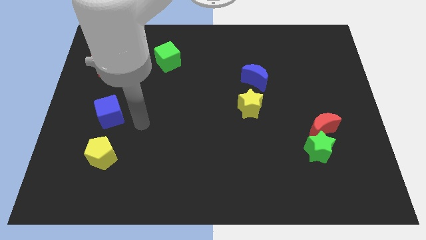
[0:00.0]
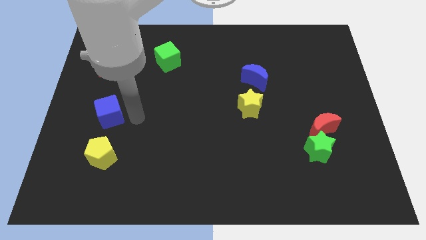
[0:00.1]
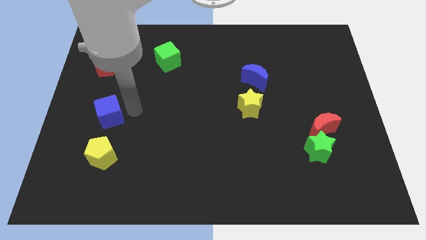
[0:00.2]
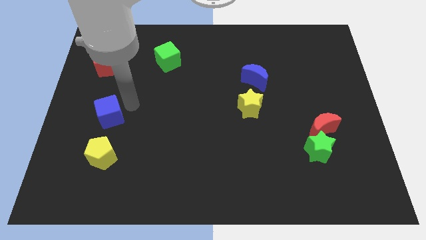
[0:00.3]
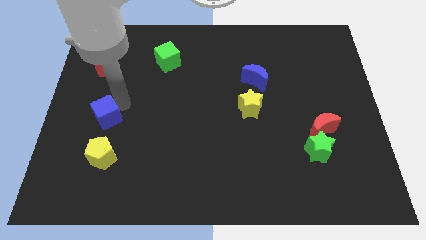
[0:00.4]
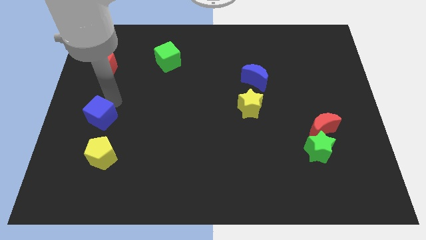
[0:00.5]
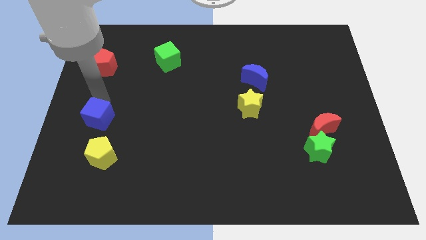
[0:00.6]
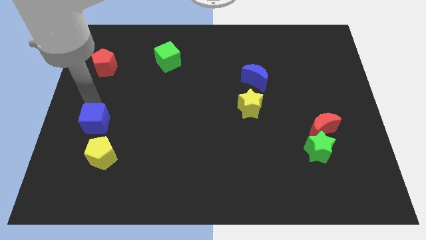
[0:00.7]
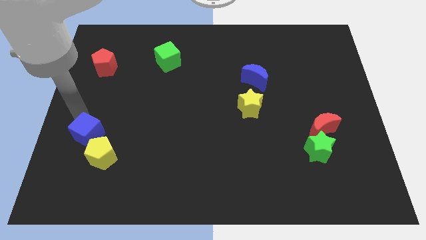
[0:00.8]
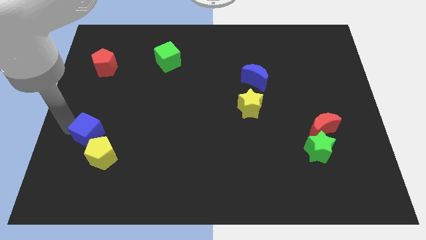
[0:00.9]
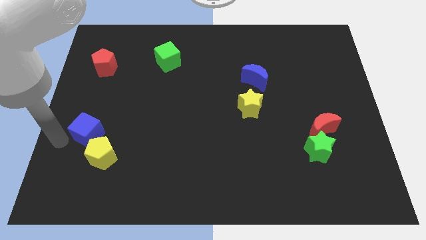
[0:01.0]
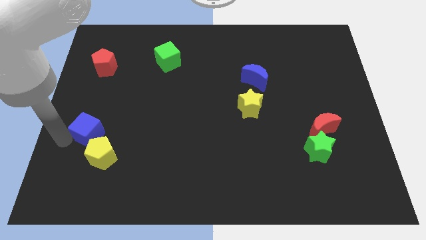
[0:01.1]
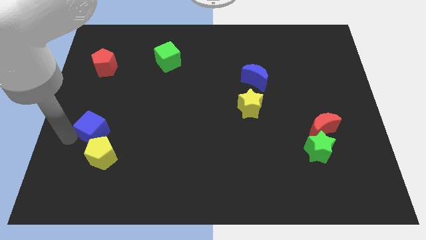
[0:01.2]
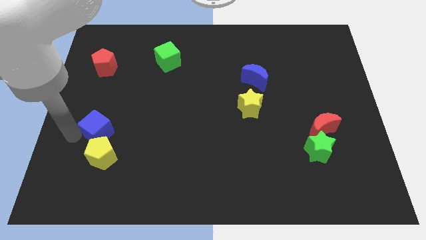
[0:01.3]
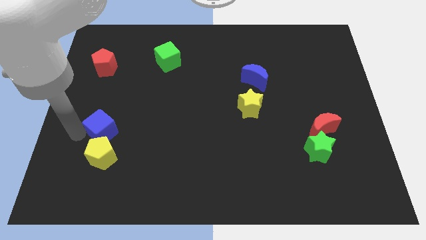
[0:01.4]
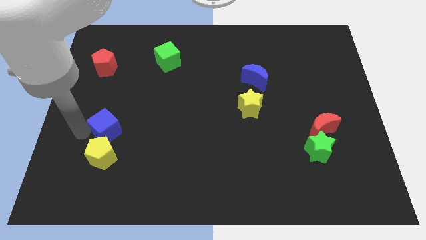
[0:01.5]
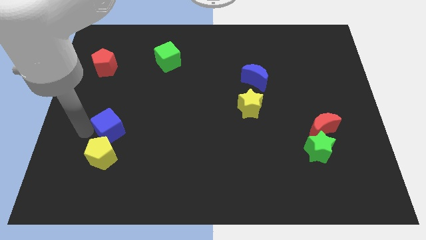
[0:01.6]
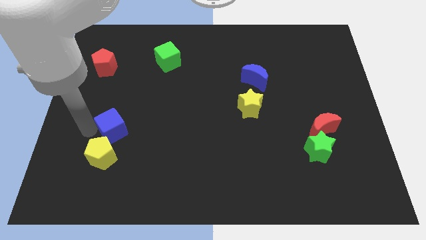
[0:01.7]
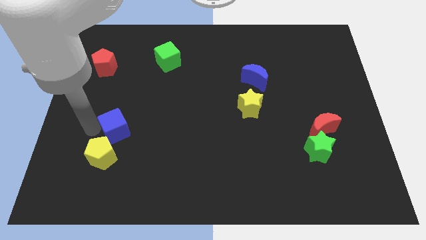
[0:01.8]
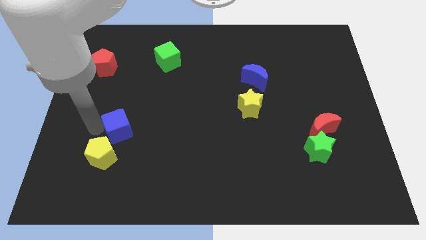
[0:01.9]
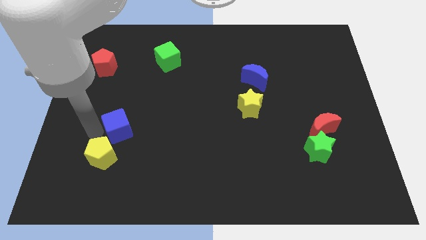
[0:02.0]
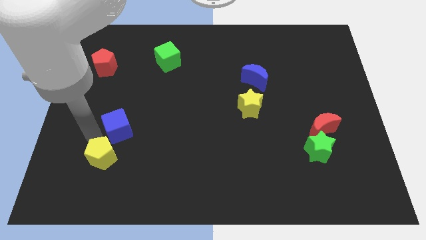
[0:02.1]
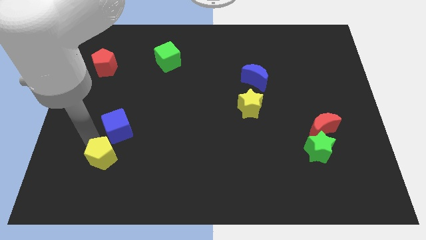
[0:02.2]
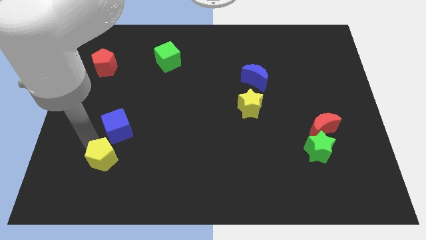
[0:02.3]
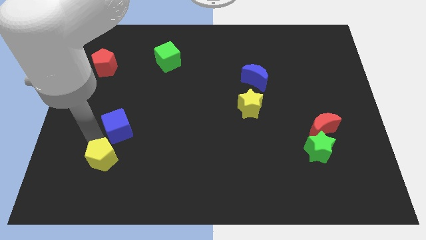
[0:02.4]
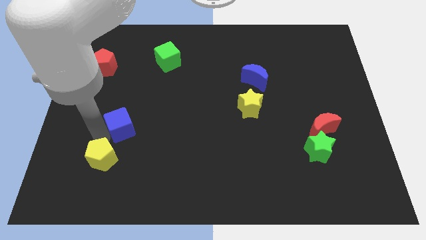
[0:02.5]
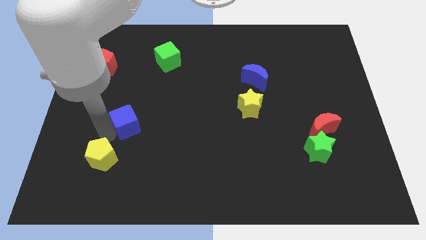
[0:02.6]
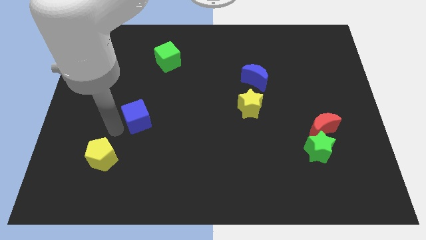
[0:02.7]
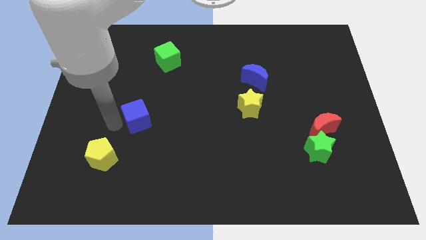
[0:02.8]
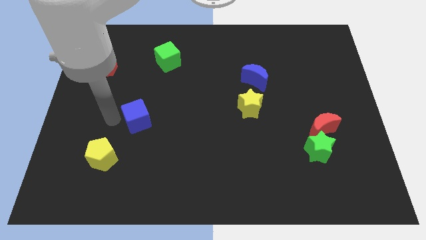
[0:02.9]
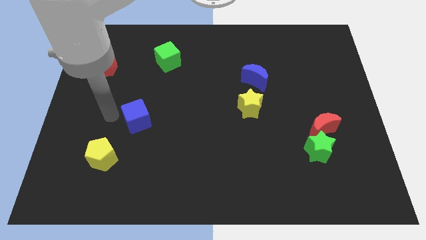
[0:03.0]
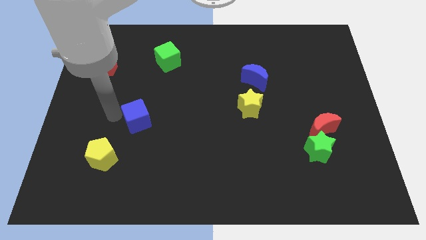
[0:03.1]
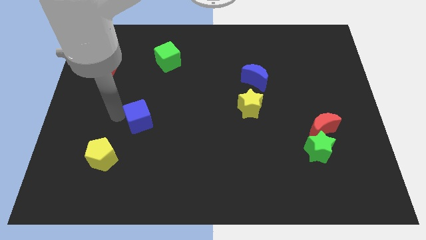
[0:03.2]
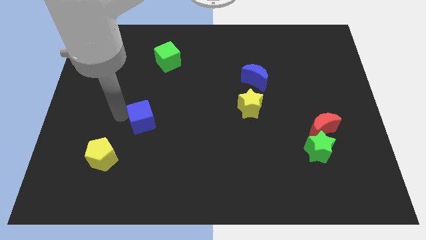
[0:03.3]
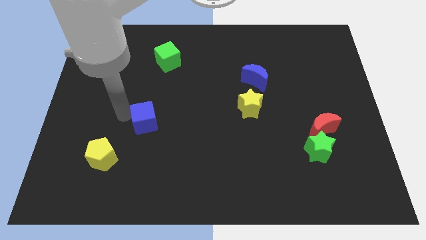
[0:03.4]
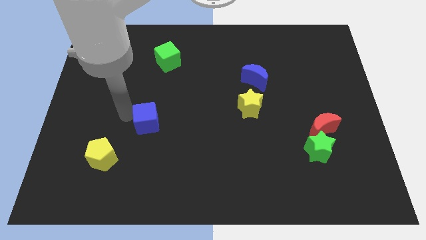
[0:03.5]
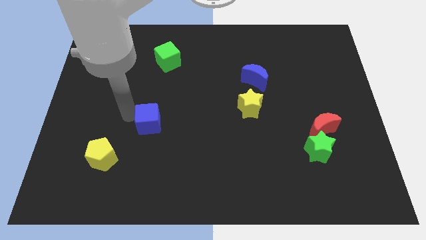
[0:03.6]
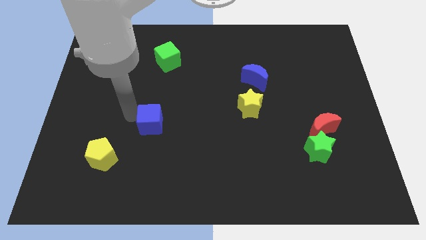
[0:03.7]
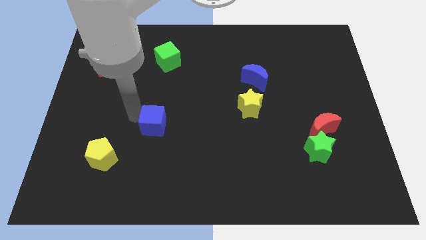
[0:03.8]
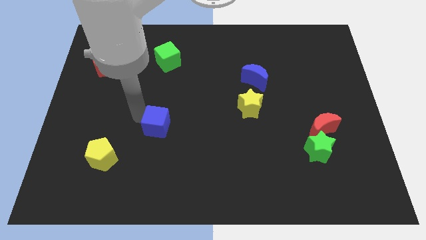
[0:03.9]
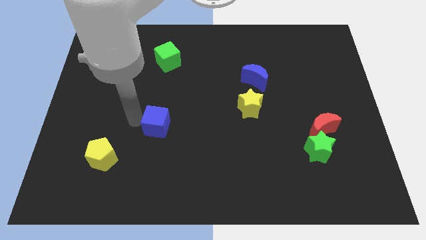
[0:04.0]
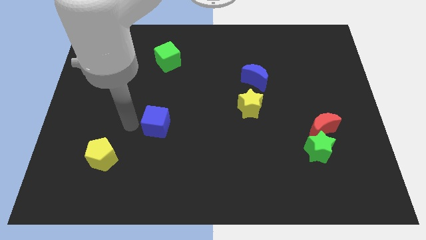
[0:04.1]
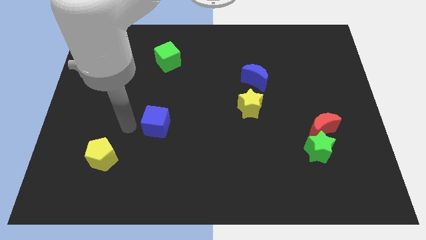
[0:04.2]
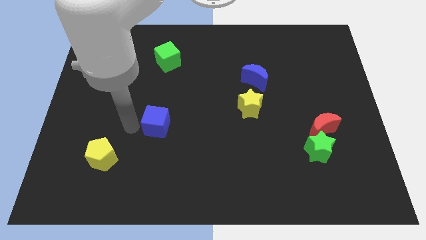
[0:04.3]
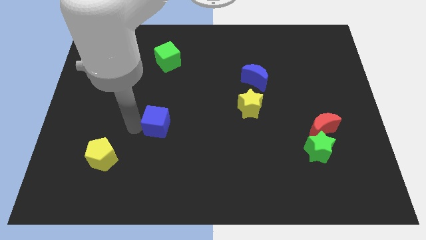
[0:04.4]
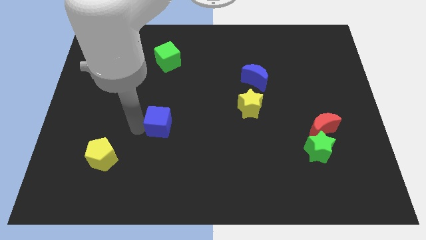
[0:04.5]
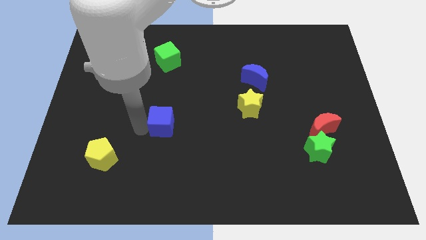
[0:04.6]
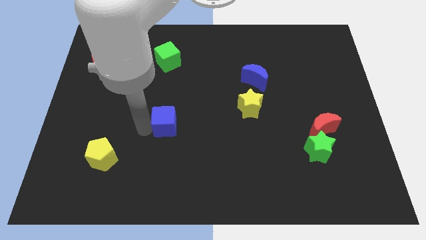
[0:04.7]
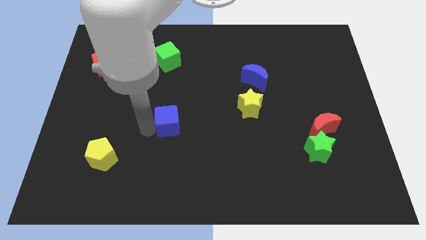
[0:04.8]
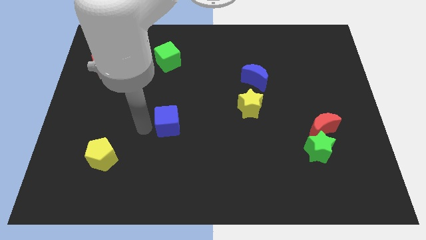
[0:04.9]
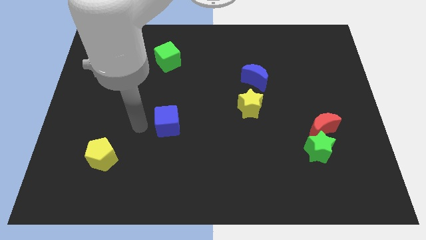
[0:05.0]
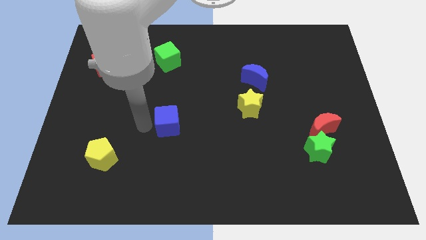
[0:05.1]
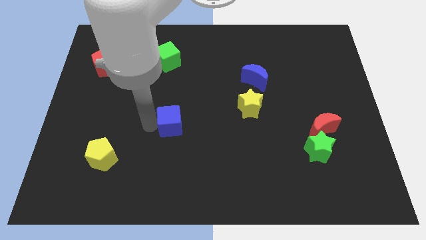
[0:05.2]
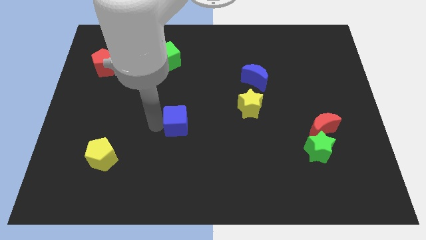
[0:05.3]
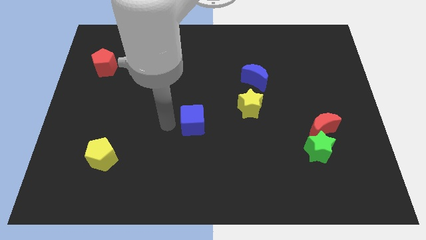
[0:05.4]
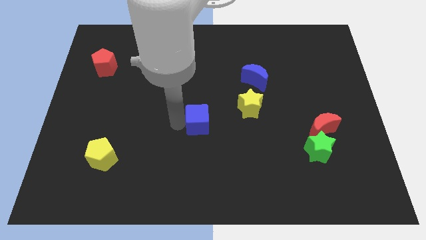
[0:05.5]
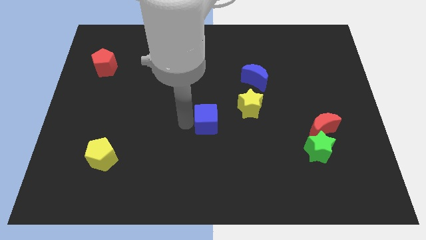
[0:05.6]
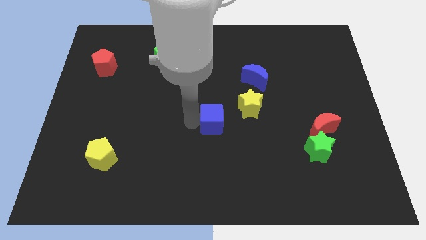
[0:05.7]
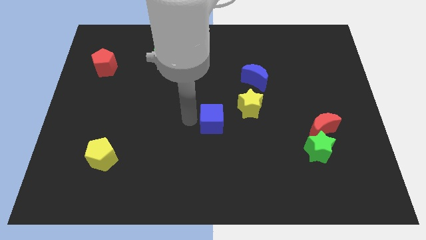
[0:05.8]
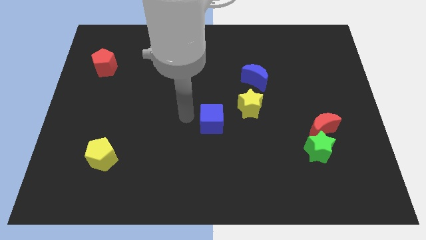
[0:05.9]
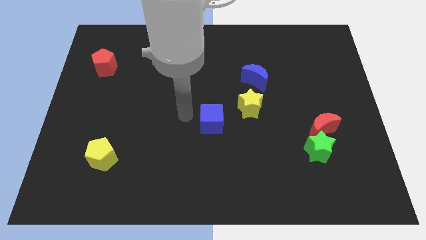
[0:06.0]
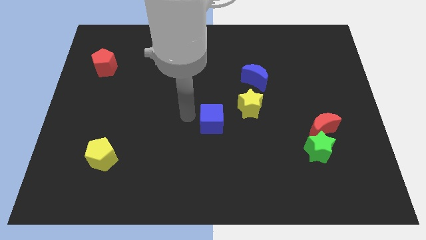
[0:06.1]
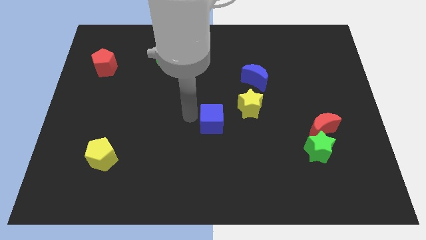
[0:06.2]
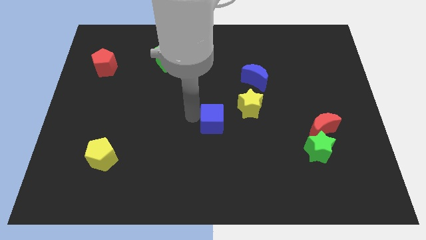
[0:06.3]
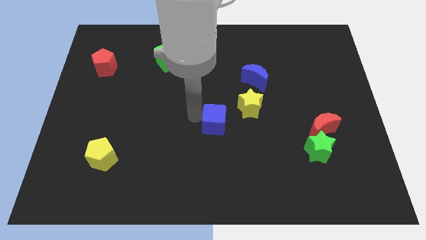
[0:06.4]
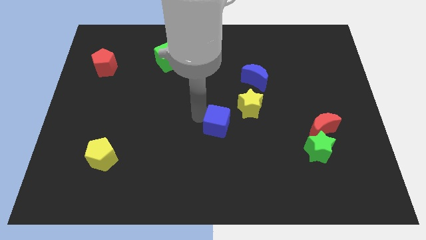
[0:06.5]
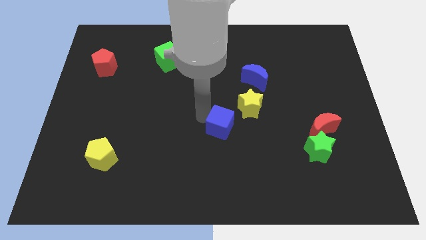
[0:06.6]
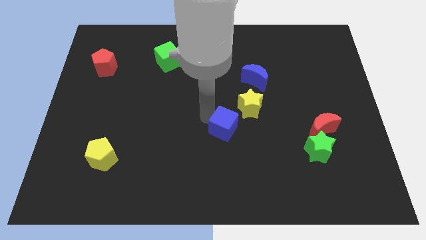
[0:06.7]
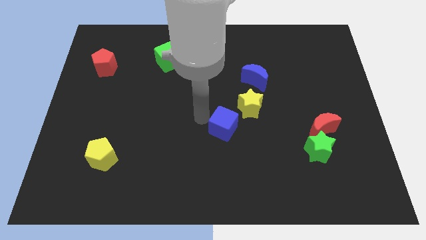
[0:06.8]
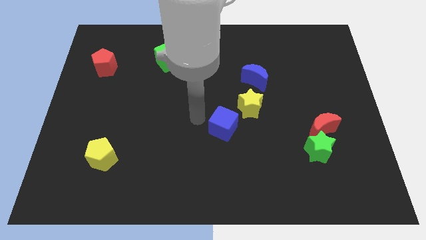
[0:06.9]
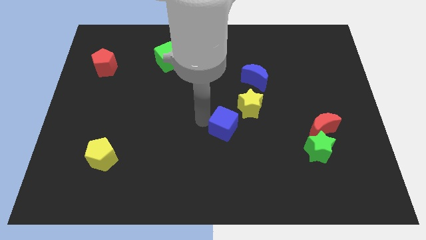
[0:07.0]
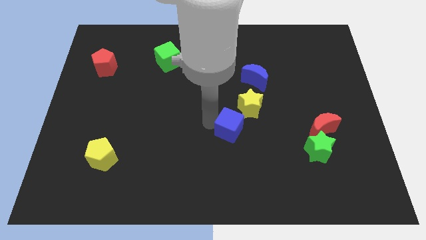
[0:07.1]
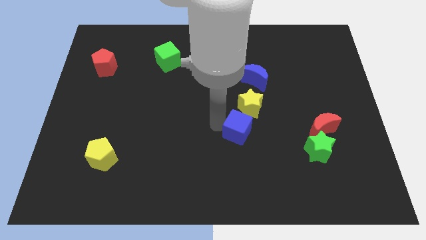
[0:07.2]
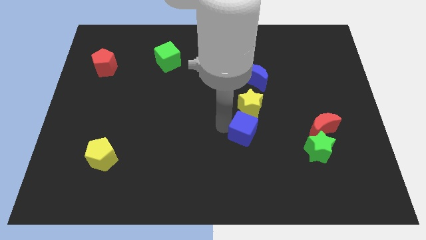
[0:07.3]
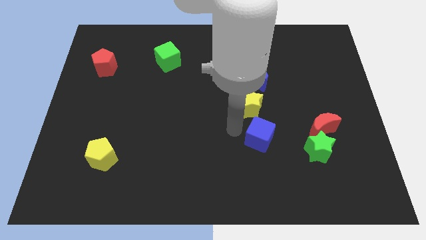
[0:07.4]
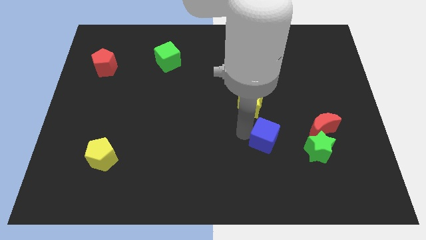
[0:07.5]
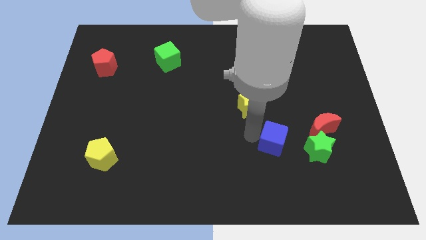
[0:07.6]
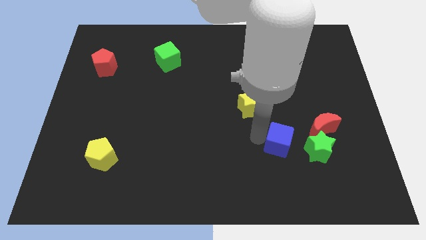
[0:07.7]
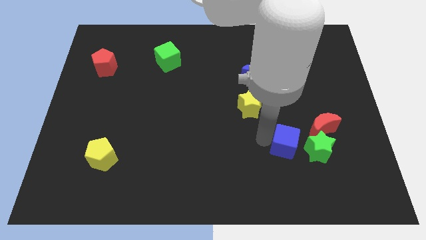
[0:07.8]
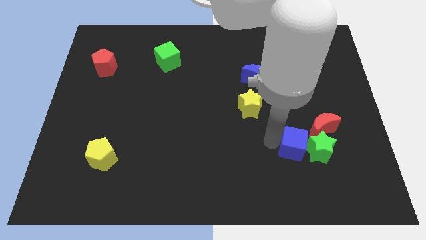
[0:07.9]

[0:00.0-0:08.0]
push the blue cube to the green star
